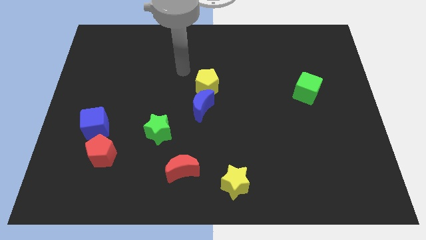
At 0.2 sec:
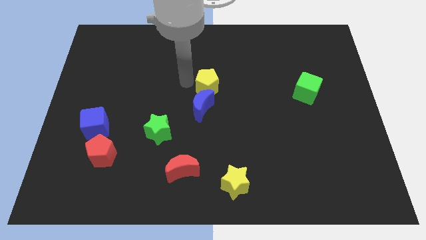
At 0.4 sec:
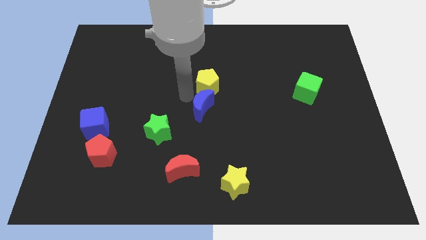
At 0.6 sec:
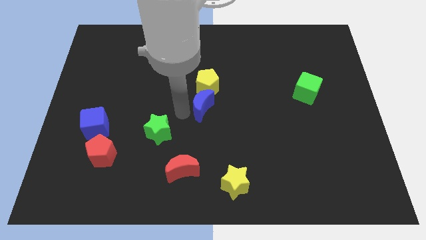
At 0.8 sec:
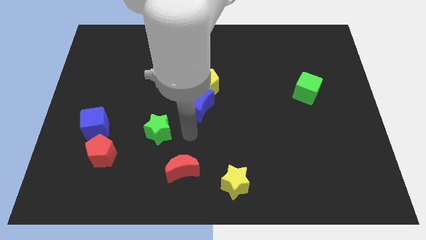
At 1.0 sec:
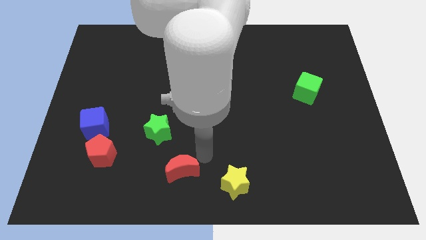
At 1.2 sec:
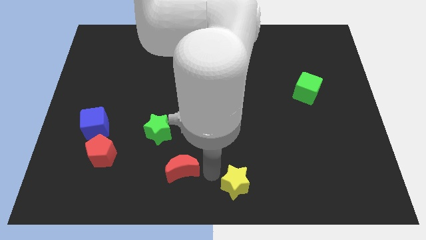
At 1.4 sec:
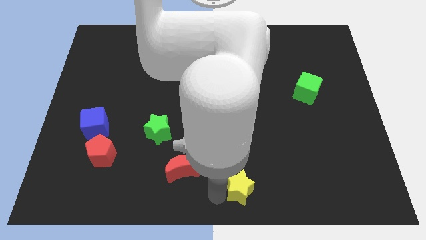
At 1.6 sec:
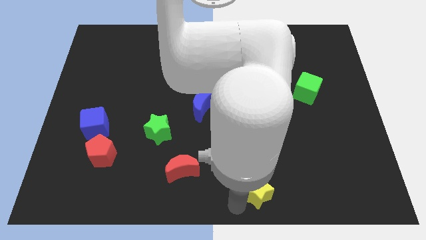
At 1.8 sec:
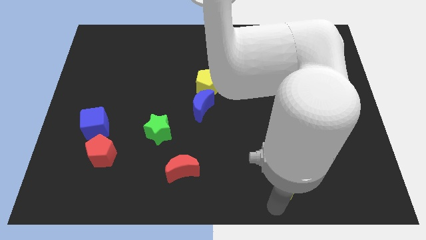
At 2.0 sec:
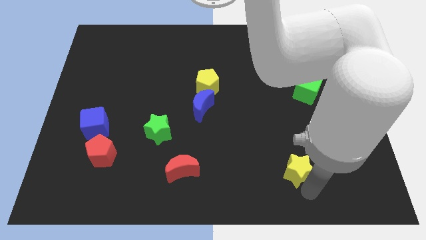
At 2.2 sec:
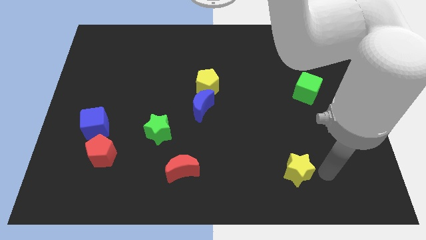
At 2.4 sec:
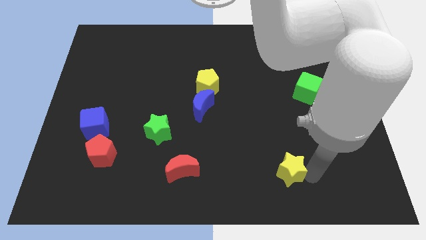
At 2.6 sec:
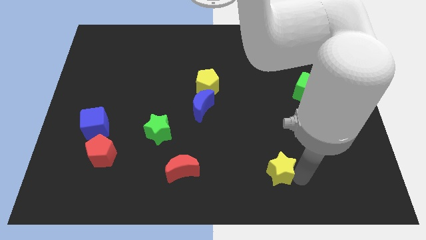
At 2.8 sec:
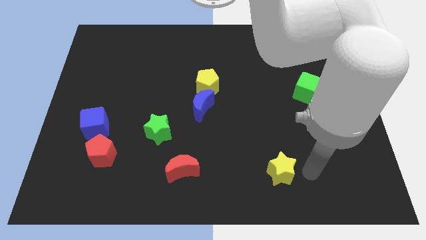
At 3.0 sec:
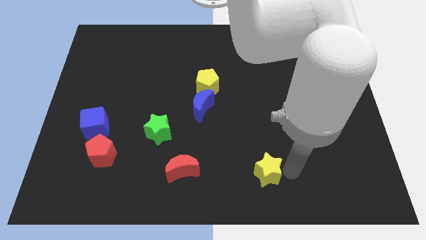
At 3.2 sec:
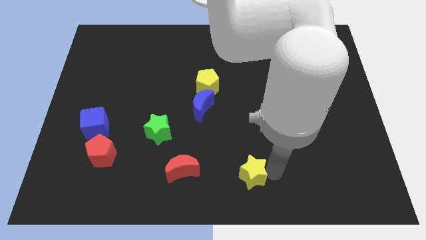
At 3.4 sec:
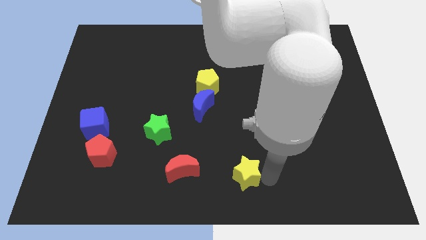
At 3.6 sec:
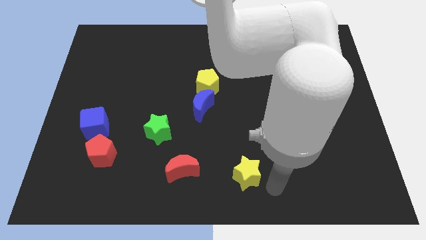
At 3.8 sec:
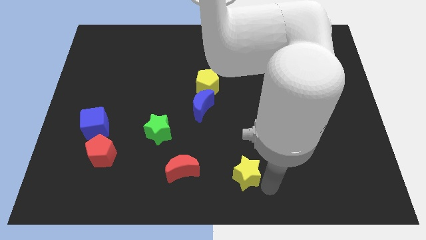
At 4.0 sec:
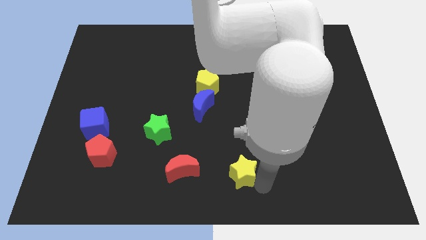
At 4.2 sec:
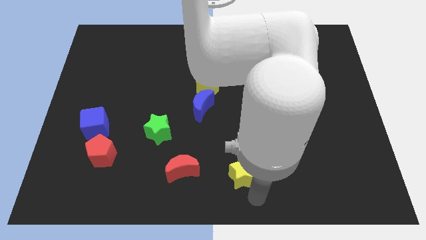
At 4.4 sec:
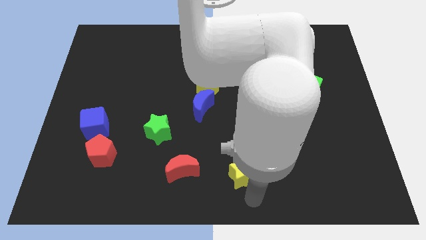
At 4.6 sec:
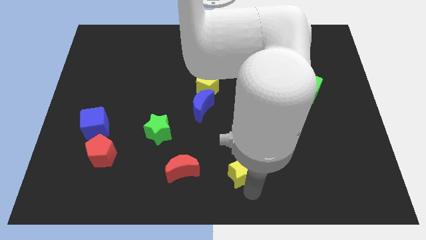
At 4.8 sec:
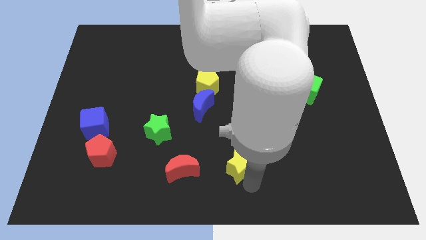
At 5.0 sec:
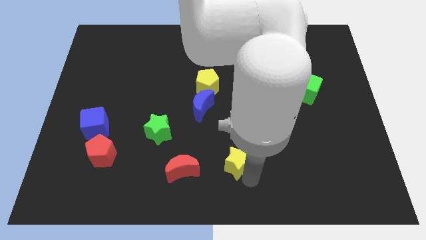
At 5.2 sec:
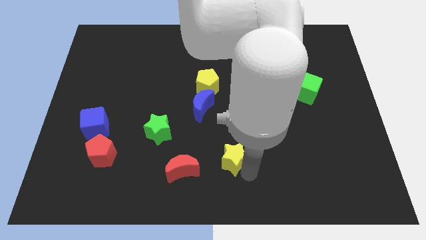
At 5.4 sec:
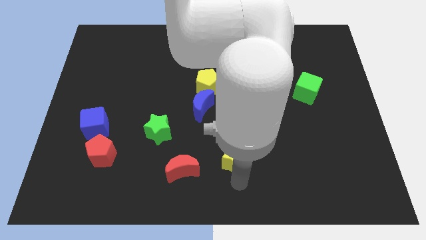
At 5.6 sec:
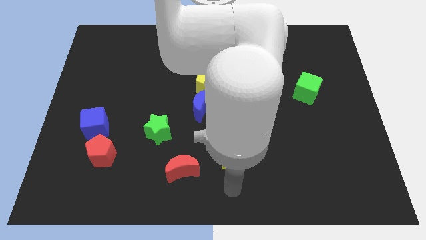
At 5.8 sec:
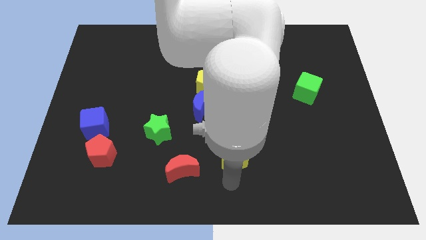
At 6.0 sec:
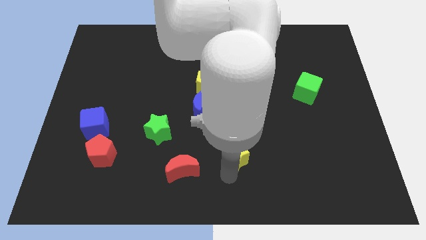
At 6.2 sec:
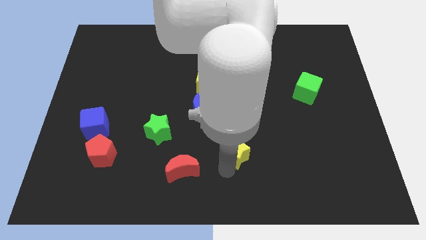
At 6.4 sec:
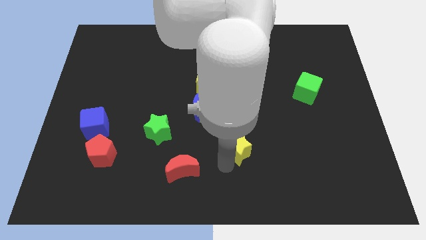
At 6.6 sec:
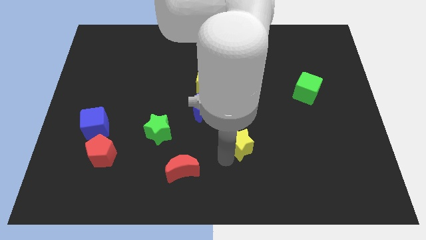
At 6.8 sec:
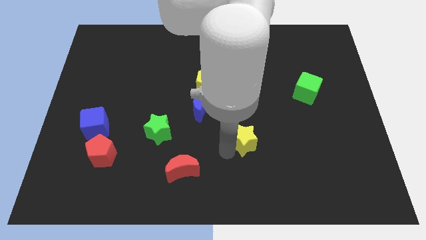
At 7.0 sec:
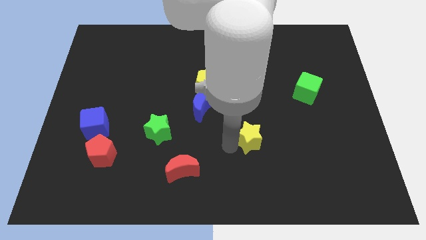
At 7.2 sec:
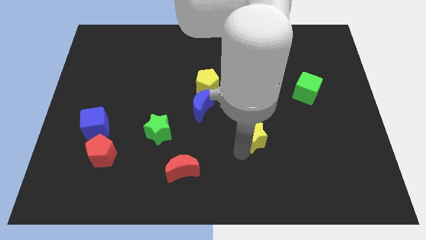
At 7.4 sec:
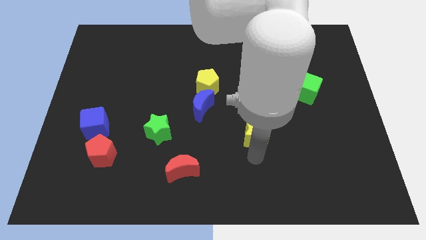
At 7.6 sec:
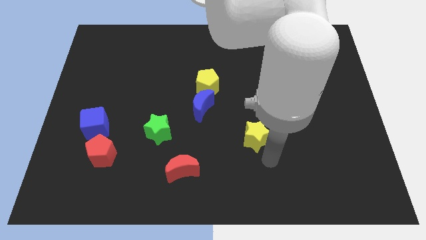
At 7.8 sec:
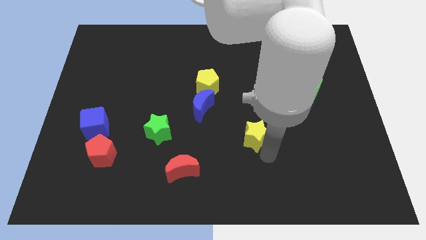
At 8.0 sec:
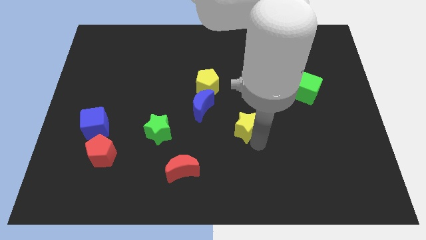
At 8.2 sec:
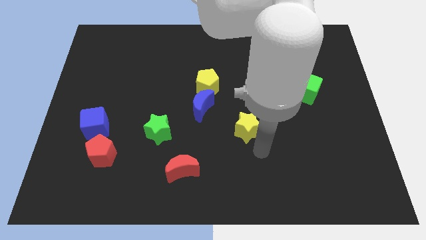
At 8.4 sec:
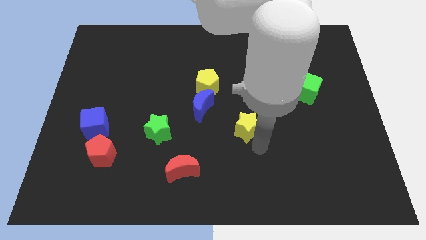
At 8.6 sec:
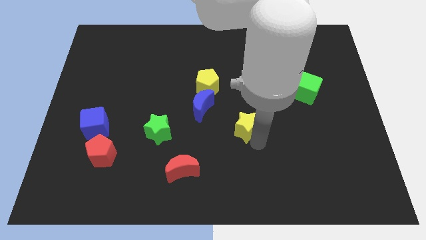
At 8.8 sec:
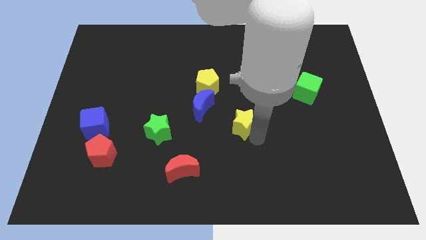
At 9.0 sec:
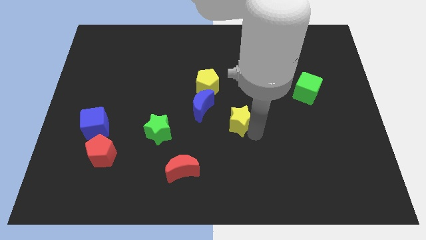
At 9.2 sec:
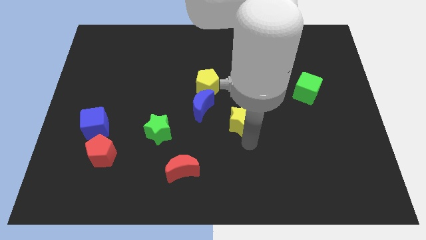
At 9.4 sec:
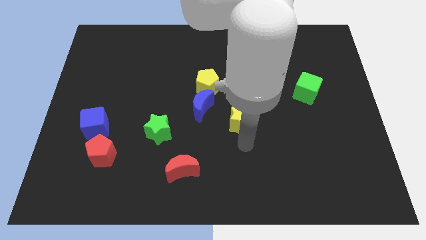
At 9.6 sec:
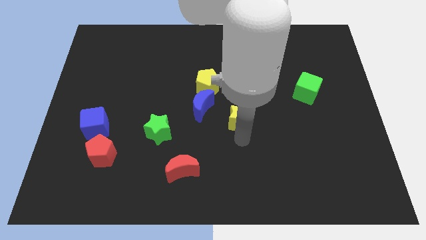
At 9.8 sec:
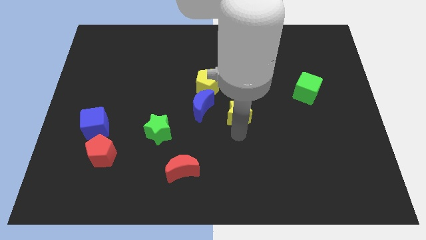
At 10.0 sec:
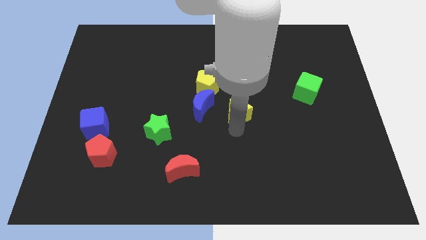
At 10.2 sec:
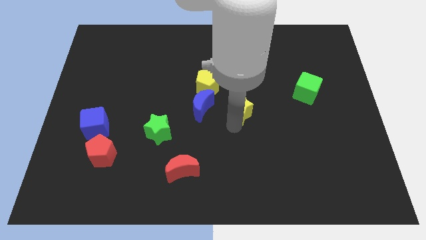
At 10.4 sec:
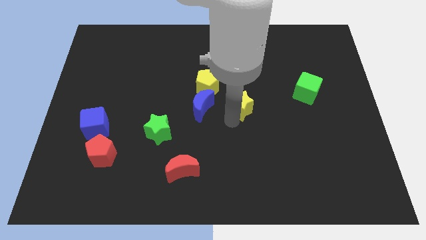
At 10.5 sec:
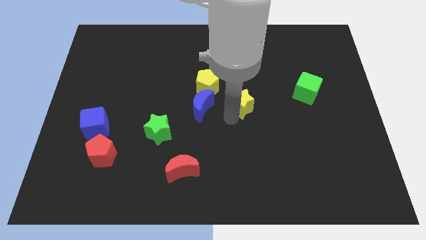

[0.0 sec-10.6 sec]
push the yellow star upwards

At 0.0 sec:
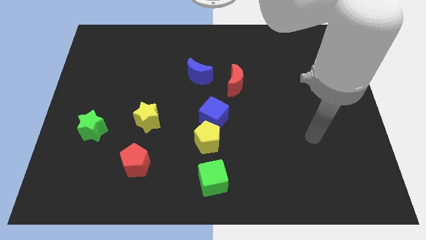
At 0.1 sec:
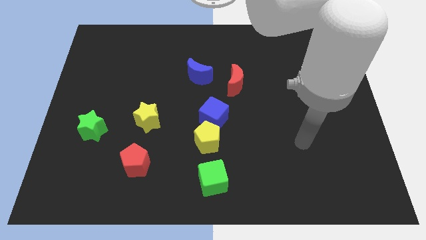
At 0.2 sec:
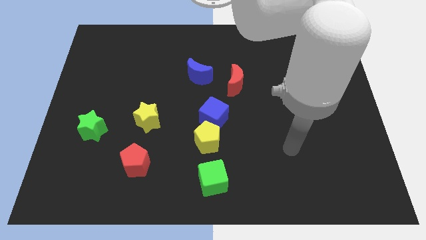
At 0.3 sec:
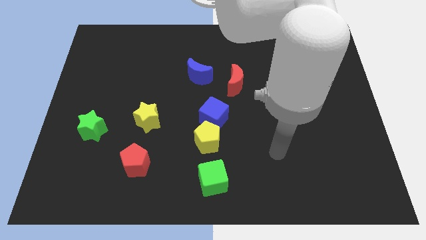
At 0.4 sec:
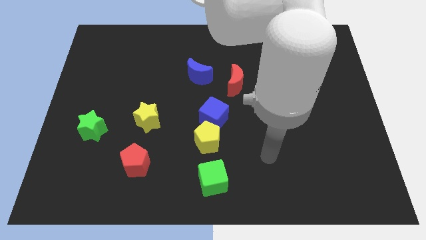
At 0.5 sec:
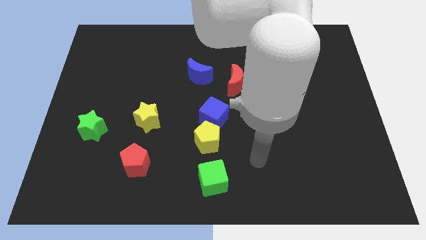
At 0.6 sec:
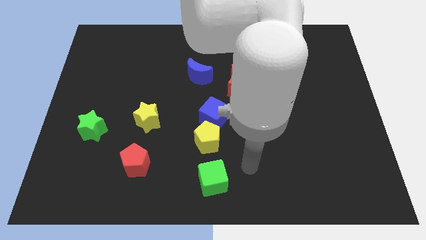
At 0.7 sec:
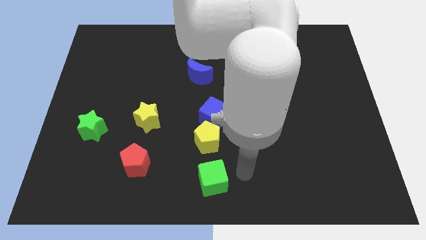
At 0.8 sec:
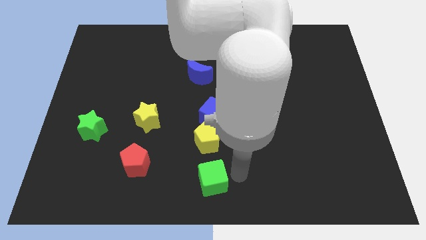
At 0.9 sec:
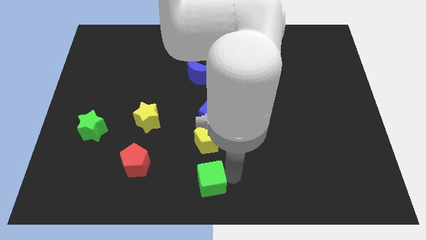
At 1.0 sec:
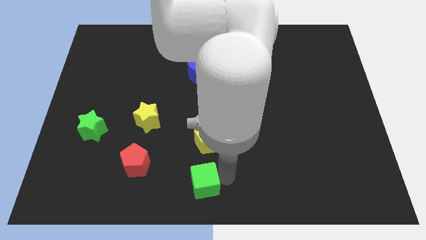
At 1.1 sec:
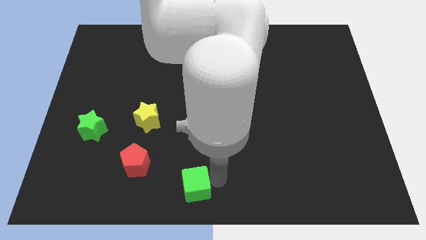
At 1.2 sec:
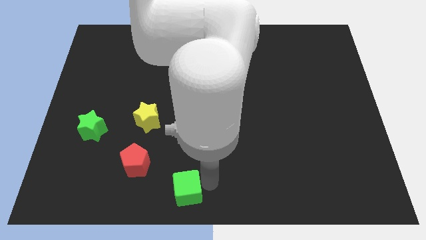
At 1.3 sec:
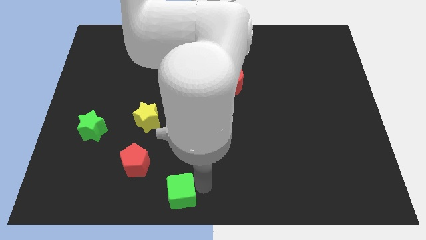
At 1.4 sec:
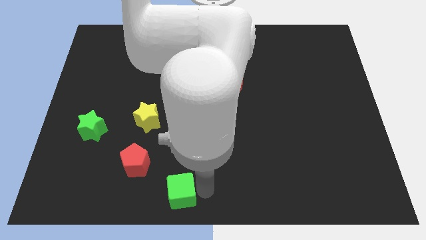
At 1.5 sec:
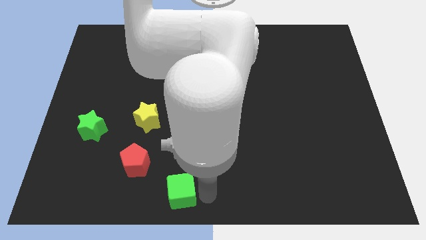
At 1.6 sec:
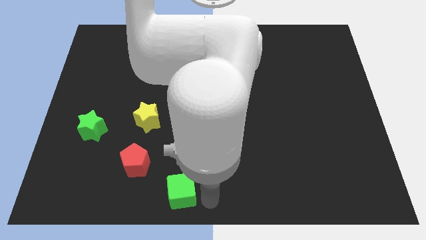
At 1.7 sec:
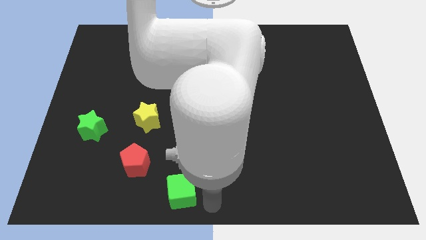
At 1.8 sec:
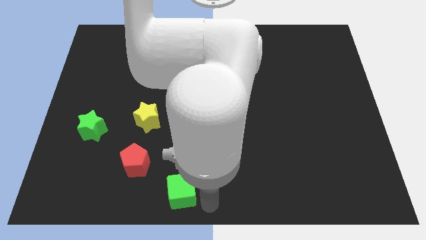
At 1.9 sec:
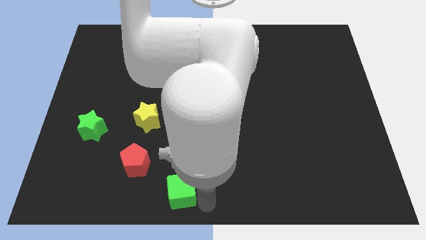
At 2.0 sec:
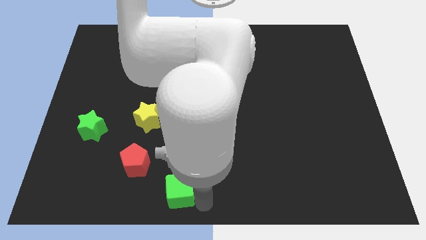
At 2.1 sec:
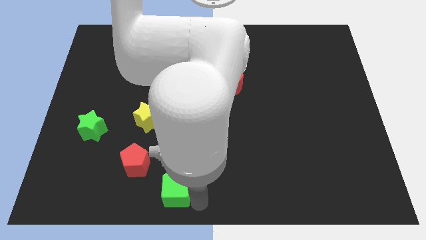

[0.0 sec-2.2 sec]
slide the green cube a little to the left

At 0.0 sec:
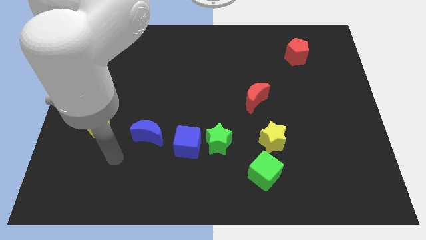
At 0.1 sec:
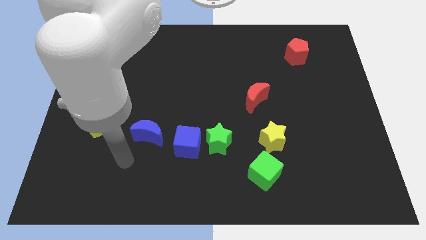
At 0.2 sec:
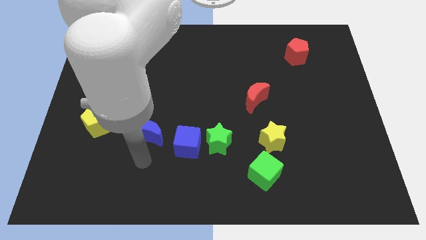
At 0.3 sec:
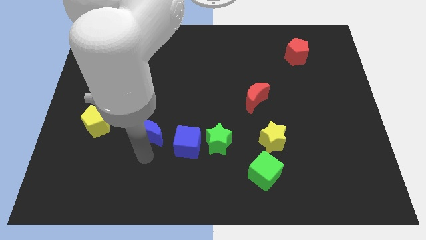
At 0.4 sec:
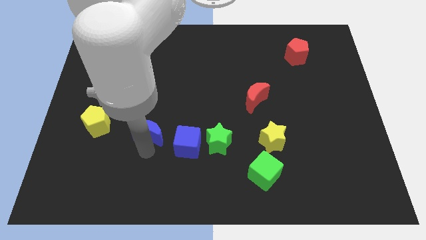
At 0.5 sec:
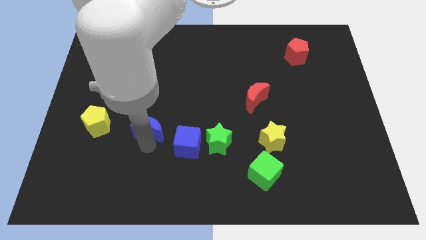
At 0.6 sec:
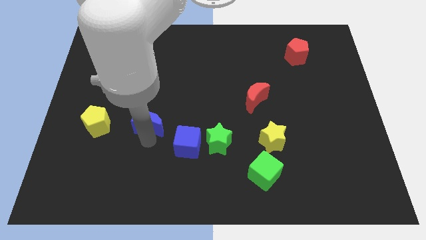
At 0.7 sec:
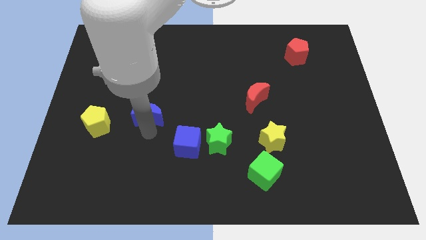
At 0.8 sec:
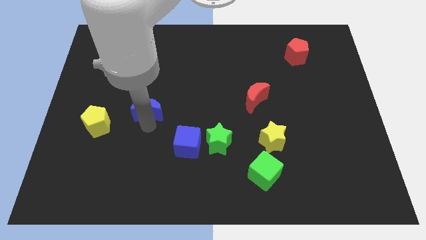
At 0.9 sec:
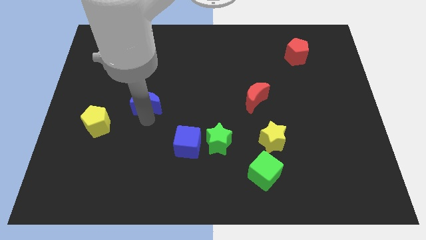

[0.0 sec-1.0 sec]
move the blue moon upwards a bit
